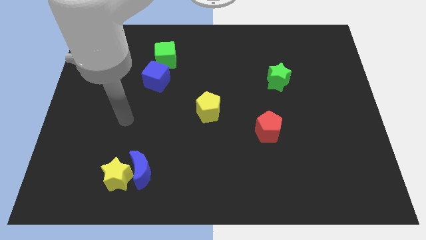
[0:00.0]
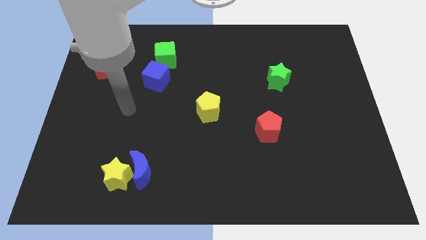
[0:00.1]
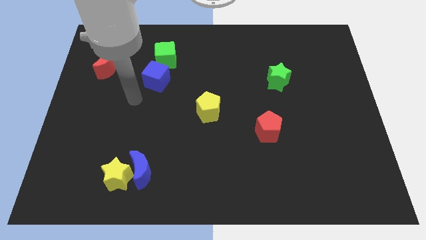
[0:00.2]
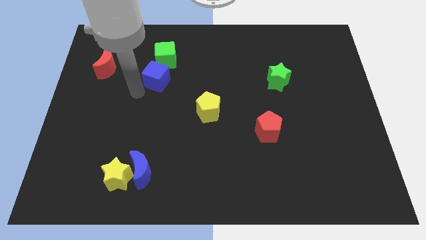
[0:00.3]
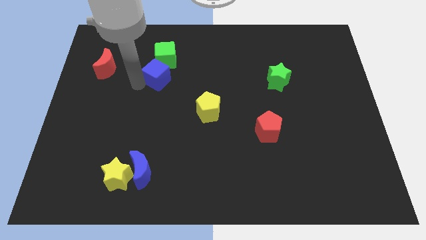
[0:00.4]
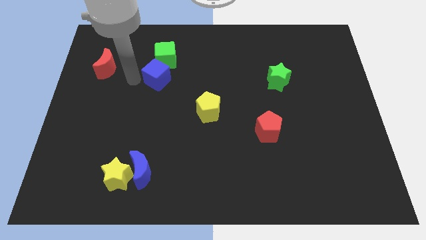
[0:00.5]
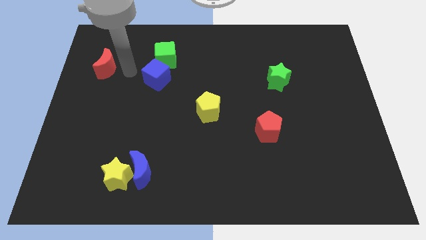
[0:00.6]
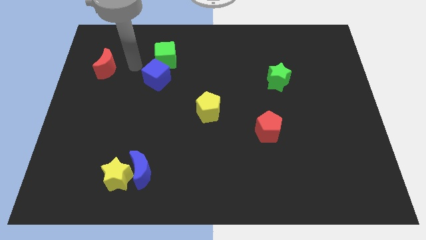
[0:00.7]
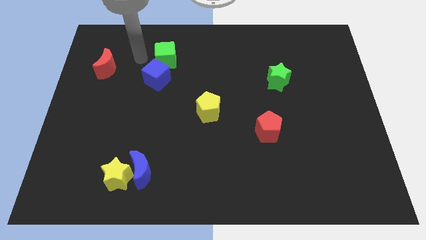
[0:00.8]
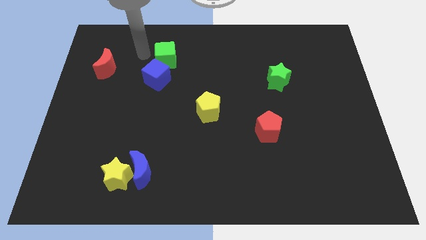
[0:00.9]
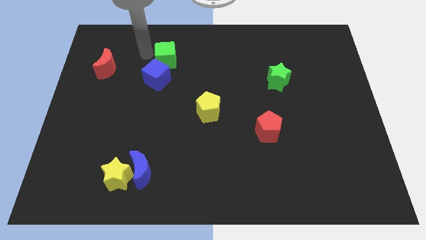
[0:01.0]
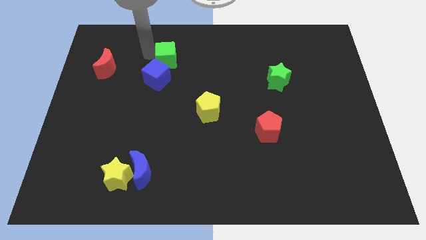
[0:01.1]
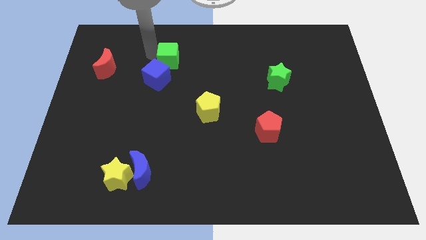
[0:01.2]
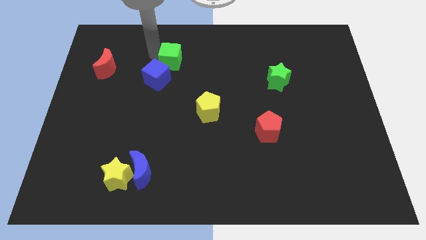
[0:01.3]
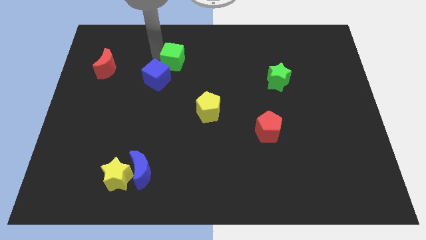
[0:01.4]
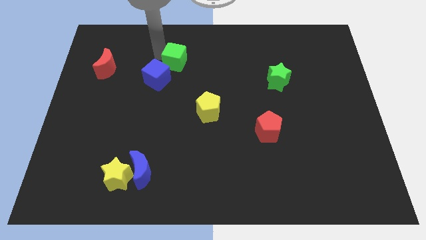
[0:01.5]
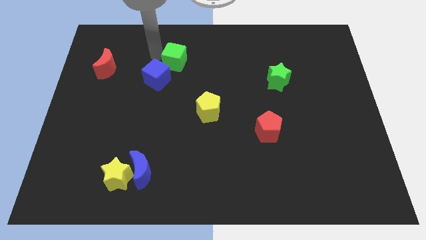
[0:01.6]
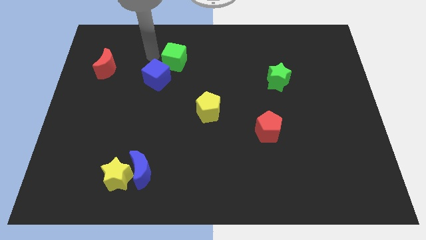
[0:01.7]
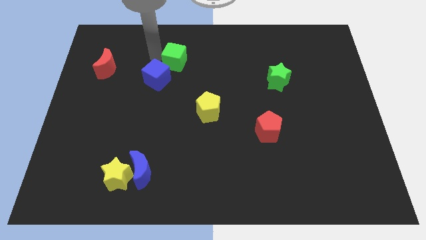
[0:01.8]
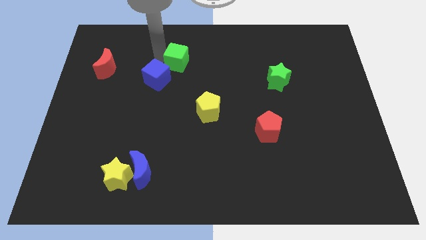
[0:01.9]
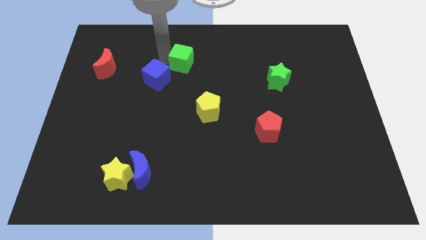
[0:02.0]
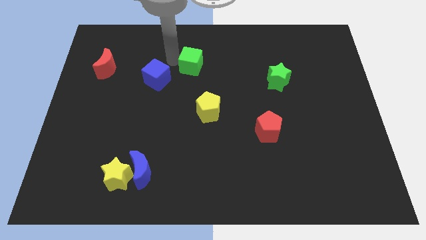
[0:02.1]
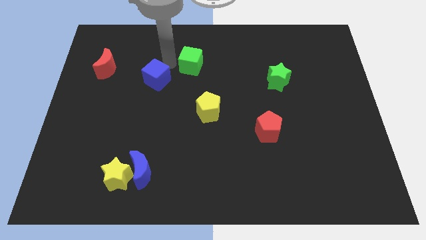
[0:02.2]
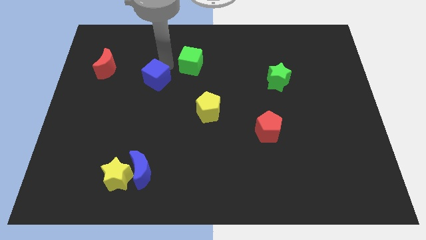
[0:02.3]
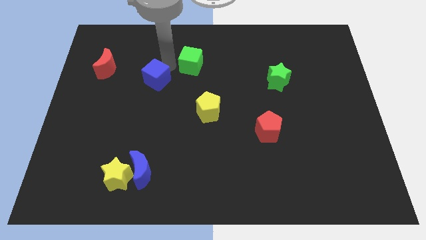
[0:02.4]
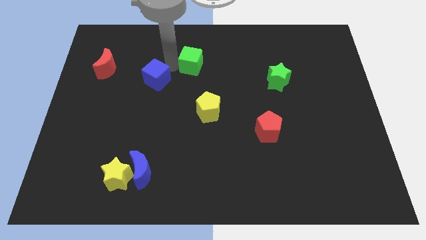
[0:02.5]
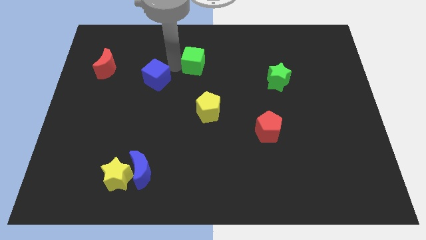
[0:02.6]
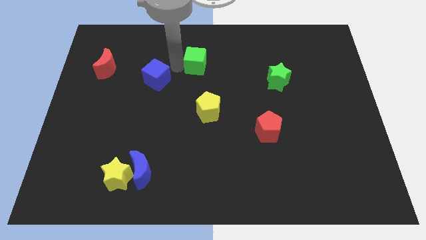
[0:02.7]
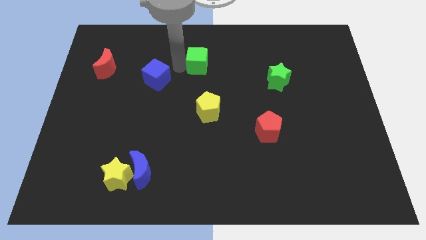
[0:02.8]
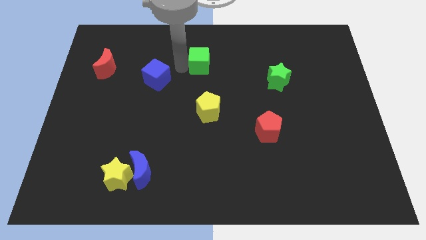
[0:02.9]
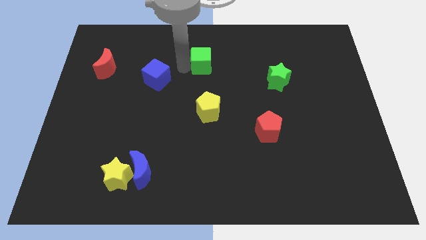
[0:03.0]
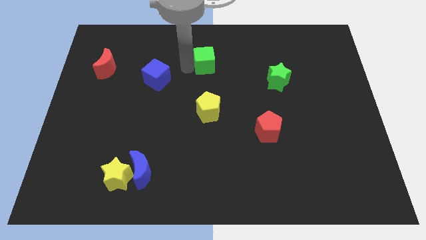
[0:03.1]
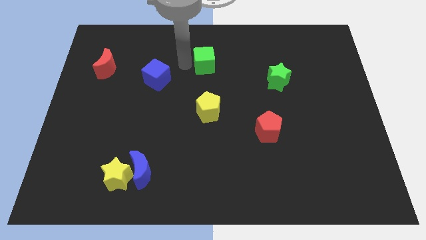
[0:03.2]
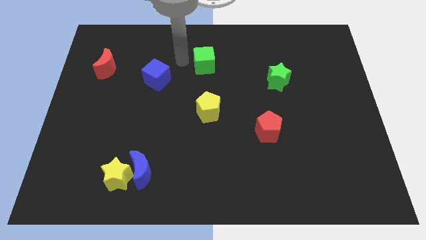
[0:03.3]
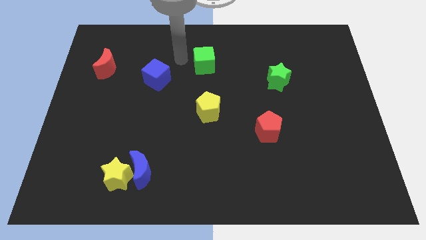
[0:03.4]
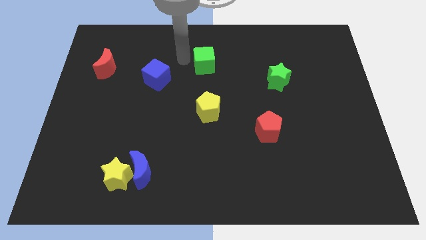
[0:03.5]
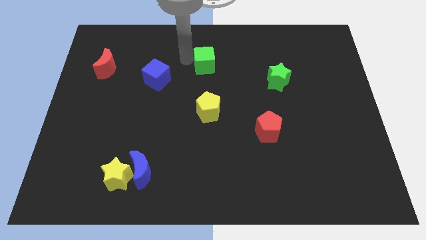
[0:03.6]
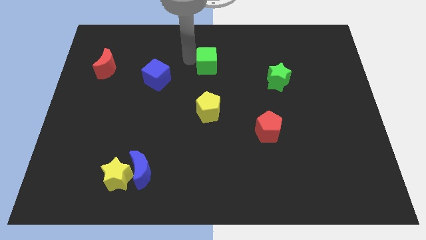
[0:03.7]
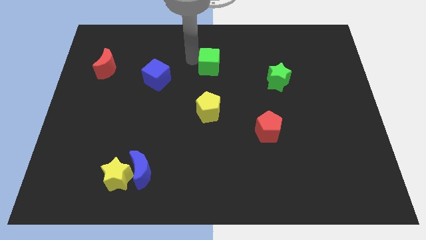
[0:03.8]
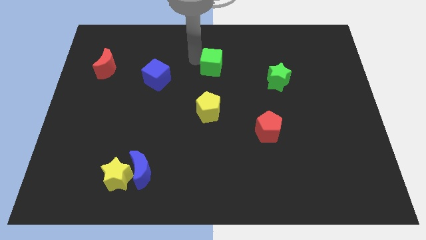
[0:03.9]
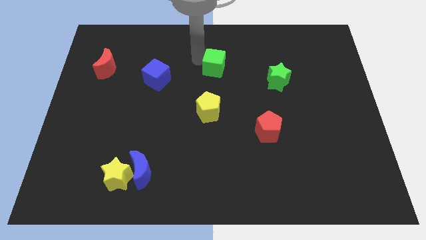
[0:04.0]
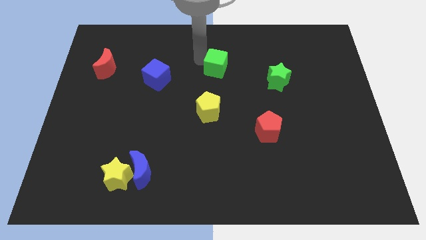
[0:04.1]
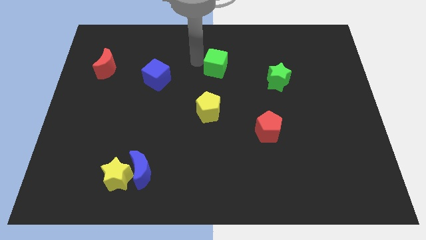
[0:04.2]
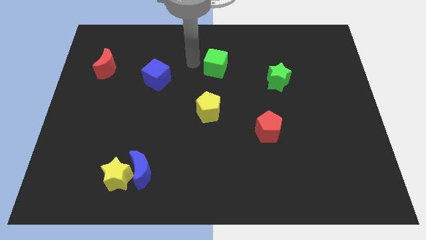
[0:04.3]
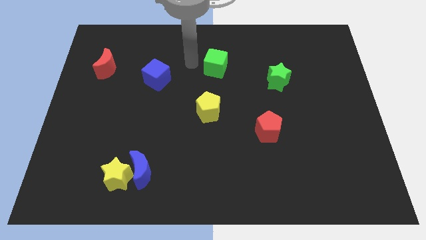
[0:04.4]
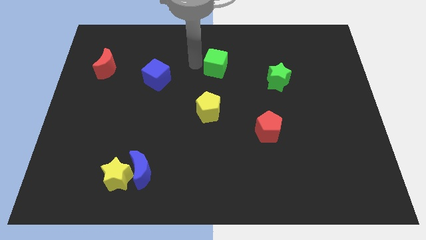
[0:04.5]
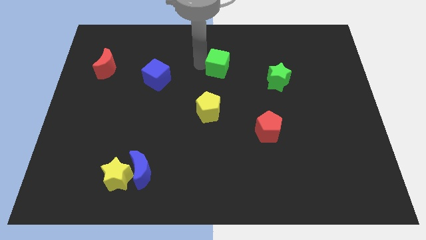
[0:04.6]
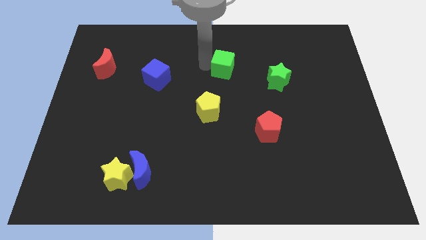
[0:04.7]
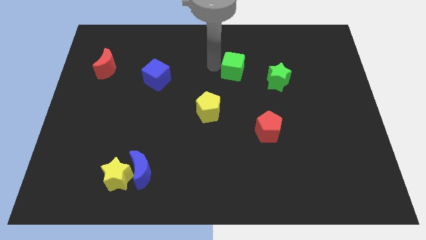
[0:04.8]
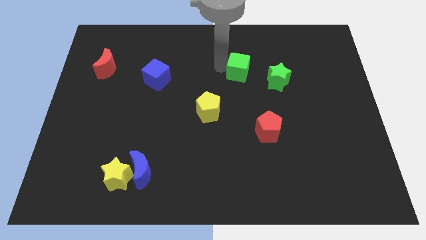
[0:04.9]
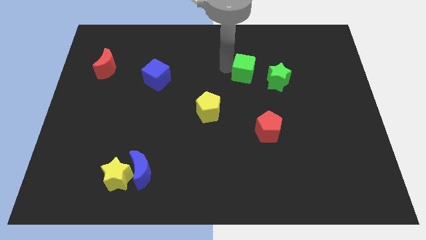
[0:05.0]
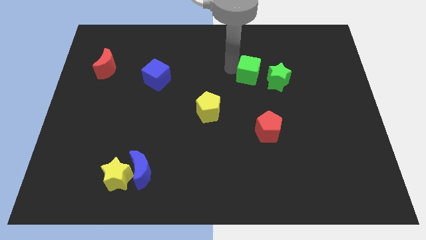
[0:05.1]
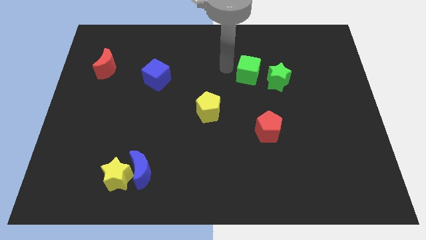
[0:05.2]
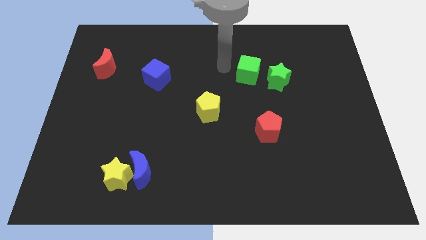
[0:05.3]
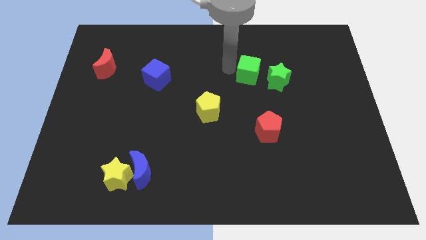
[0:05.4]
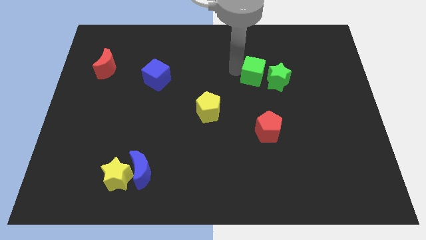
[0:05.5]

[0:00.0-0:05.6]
slide the green cube to the green star

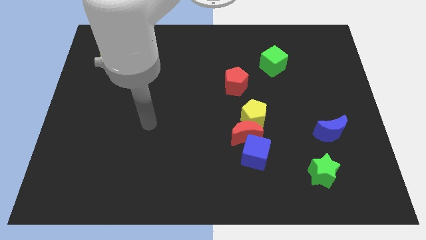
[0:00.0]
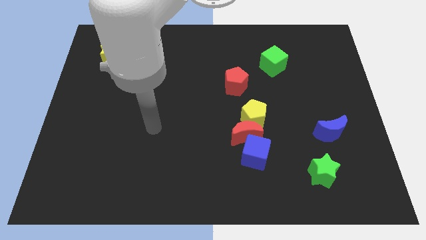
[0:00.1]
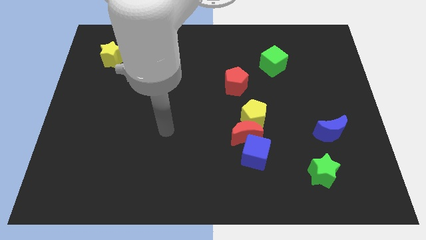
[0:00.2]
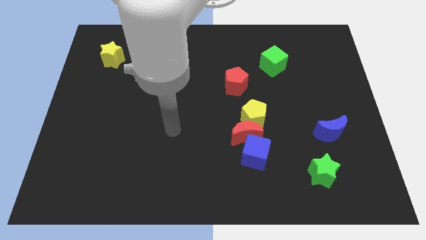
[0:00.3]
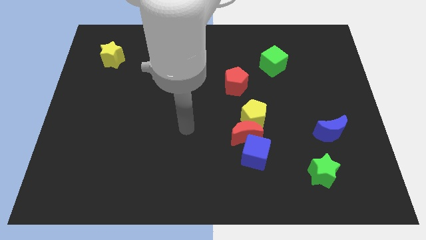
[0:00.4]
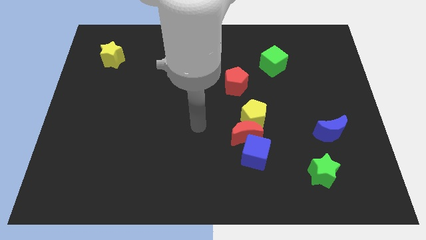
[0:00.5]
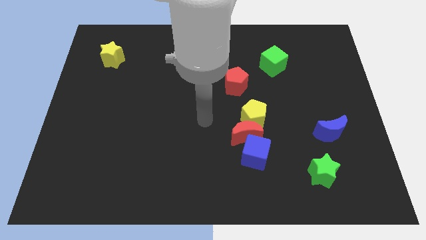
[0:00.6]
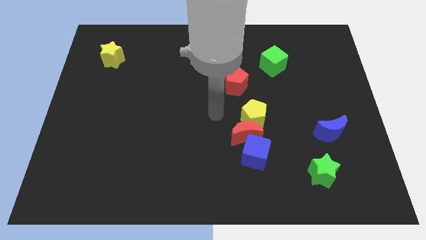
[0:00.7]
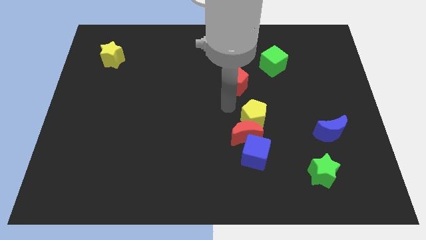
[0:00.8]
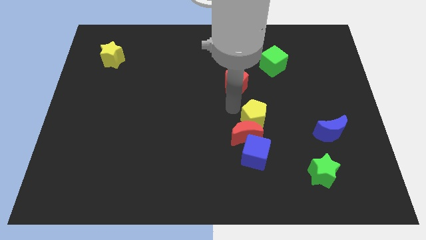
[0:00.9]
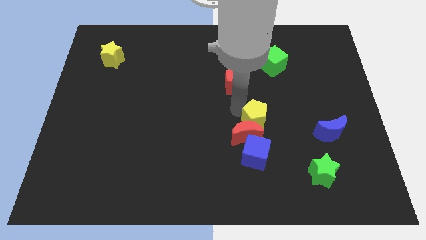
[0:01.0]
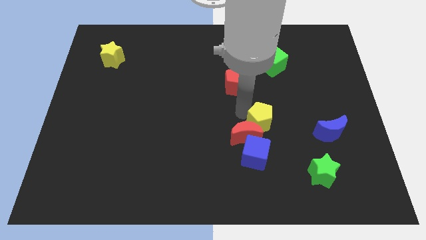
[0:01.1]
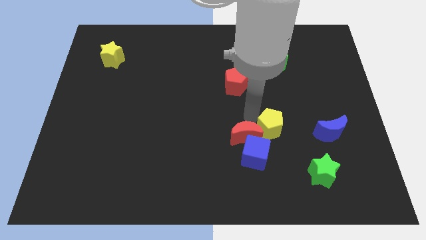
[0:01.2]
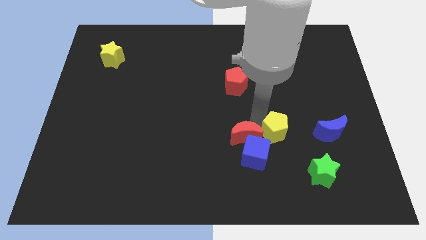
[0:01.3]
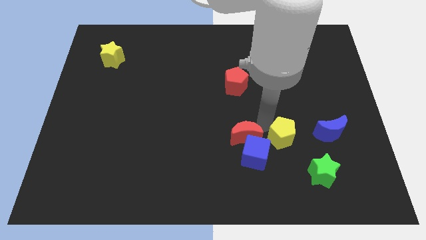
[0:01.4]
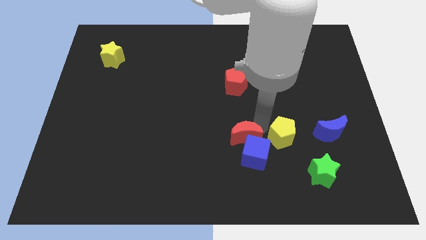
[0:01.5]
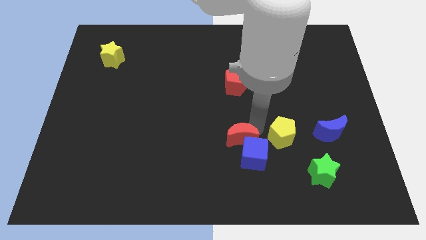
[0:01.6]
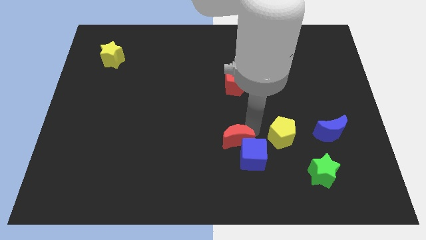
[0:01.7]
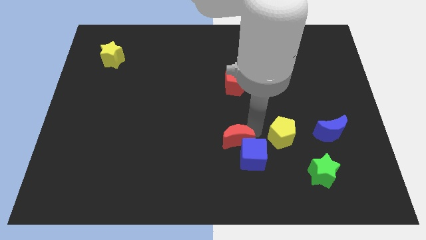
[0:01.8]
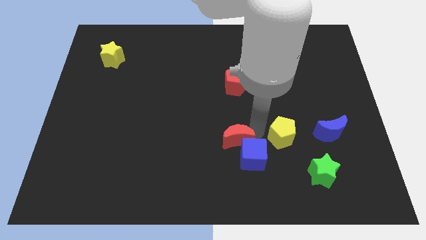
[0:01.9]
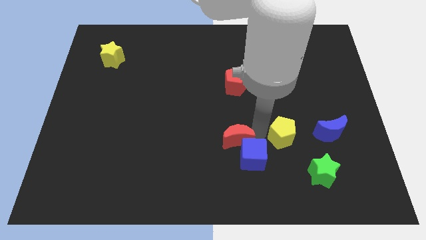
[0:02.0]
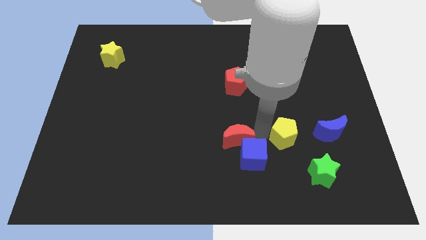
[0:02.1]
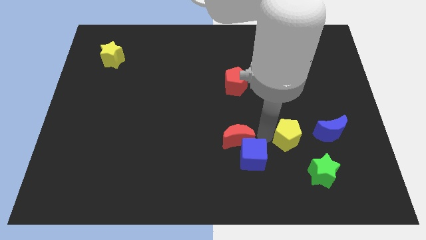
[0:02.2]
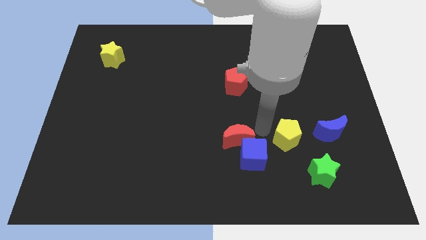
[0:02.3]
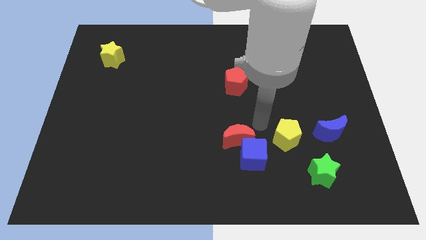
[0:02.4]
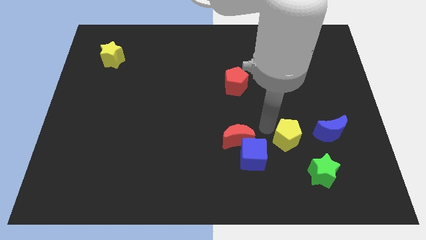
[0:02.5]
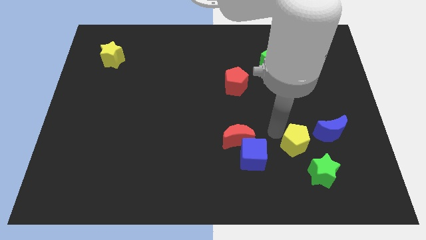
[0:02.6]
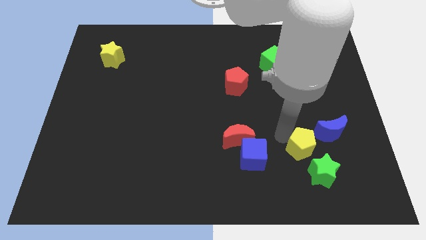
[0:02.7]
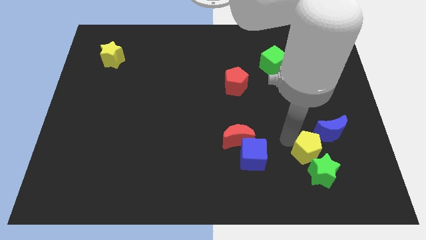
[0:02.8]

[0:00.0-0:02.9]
slide the yellow pentagon to the green star
